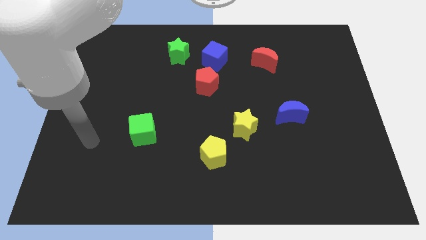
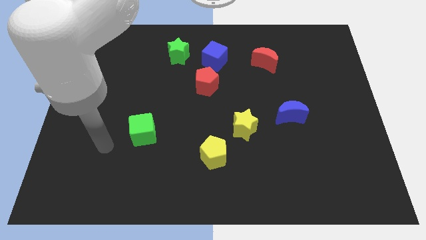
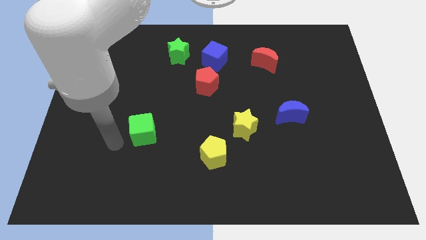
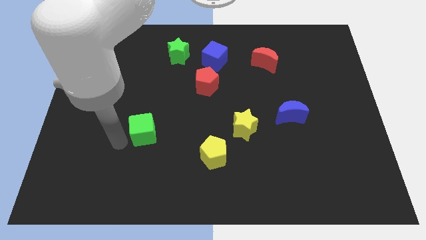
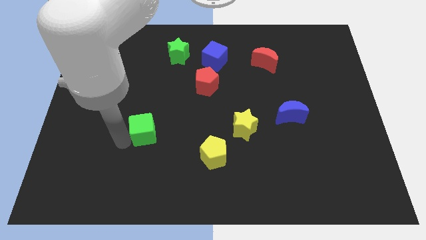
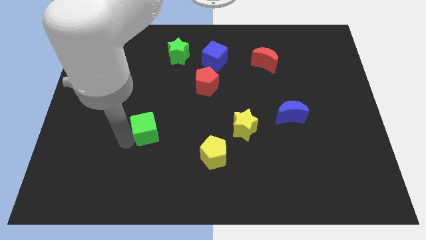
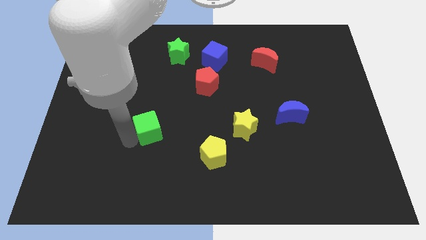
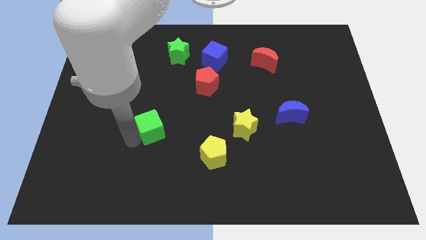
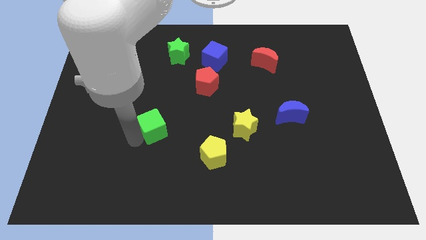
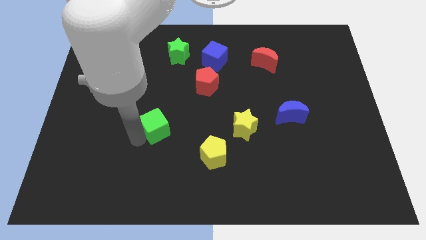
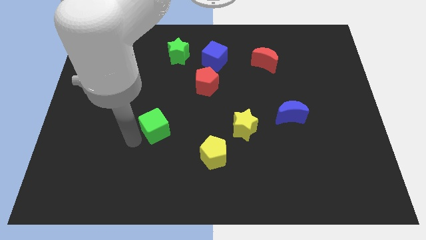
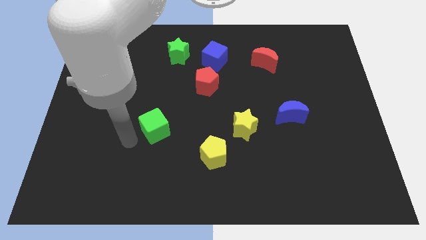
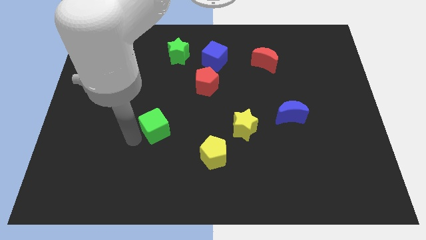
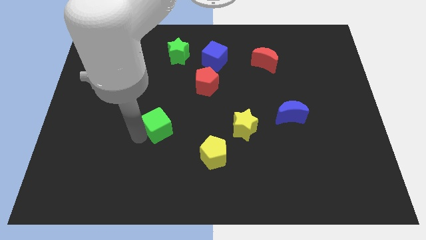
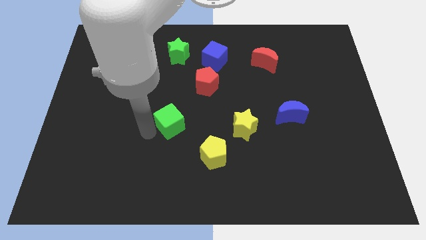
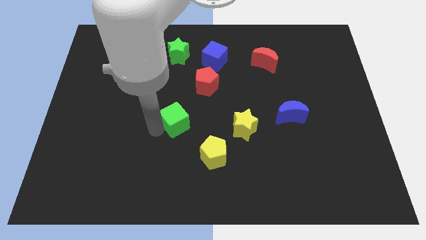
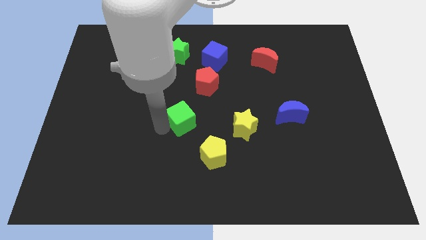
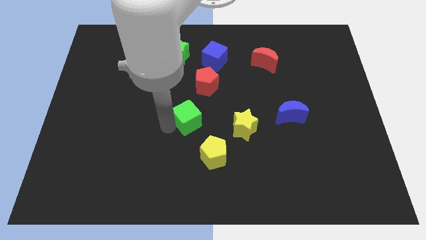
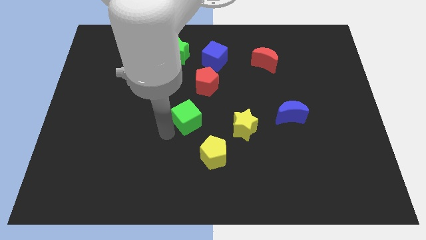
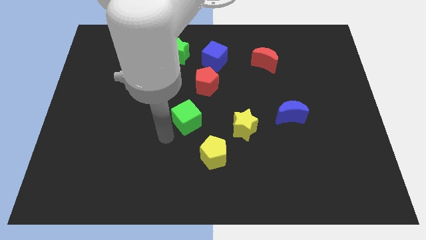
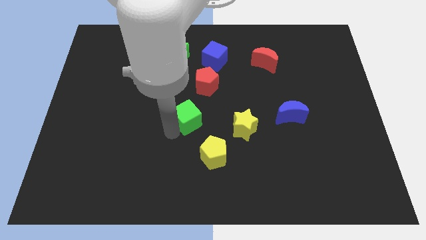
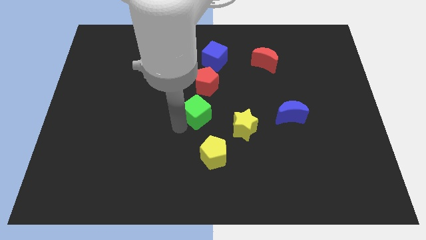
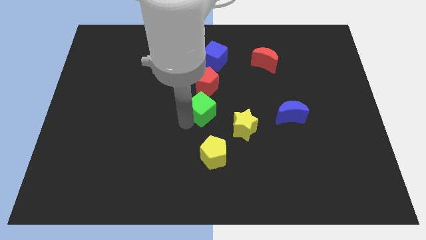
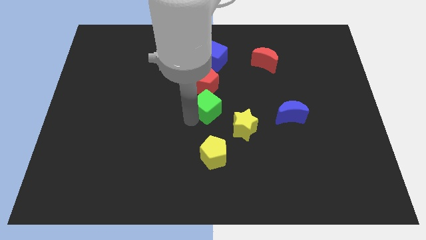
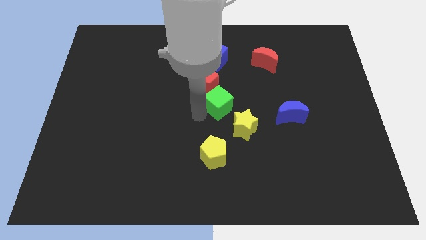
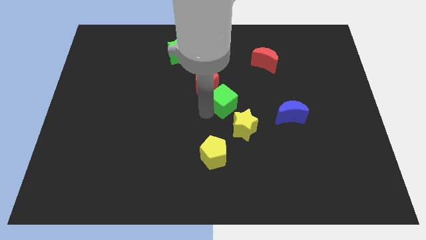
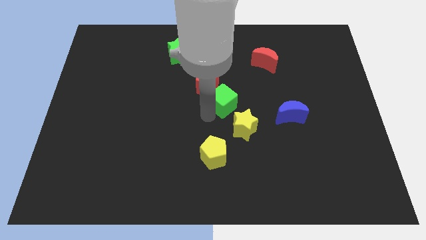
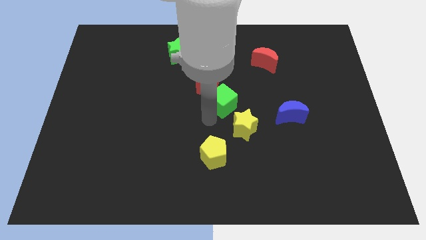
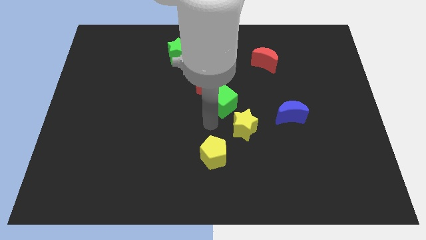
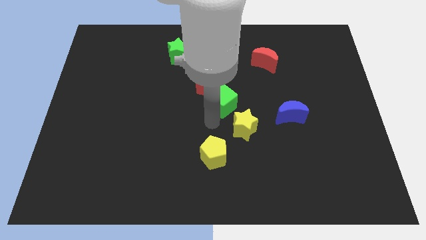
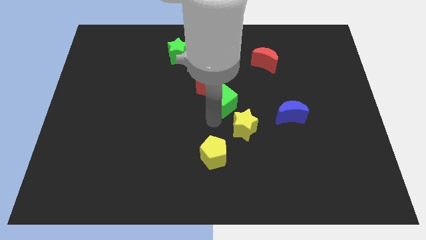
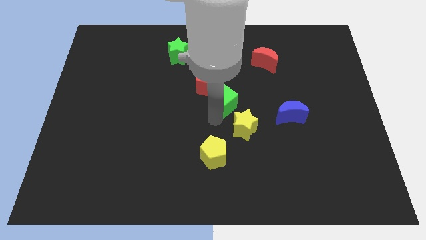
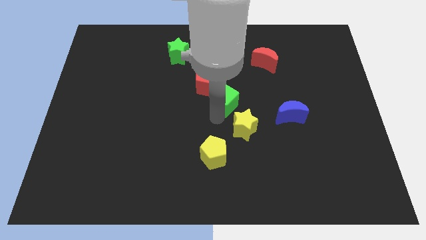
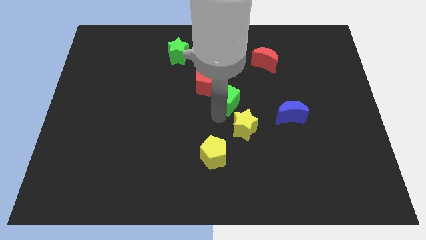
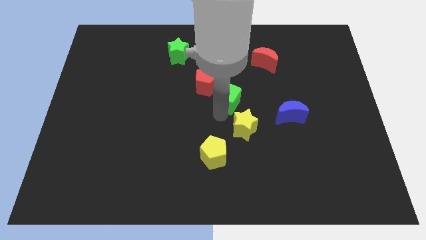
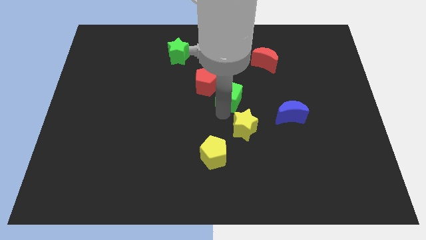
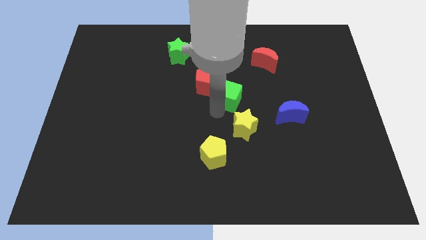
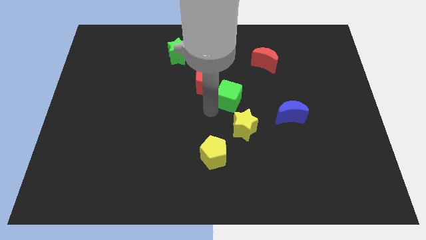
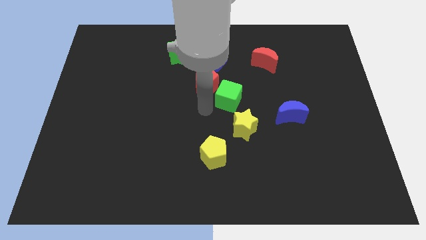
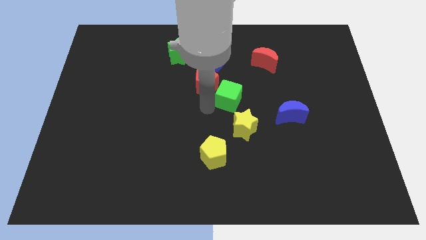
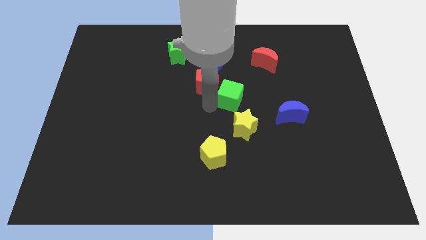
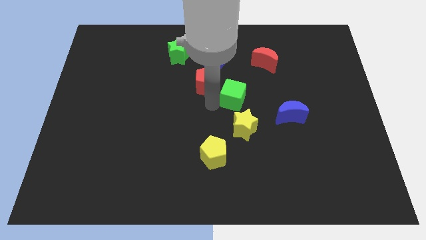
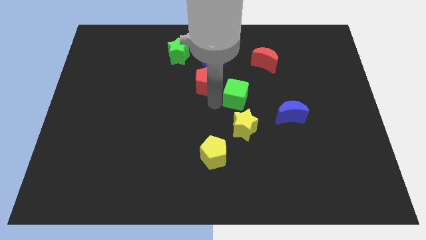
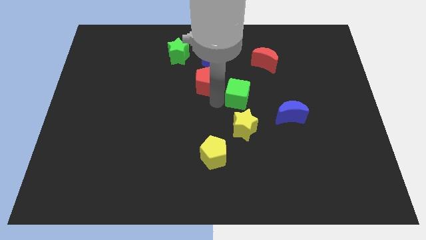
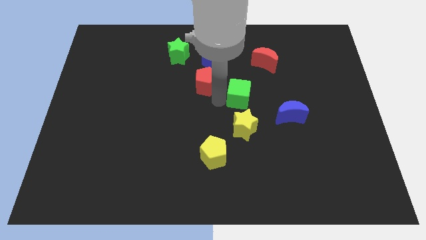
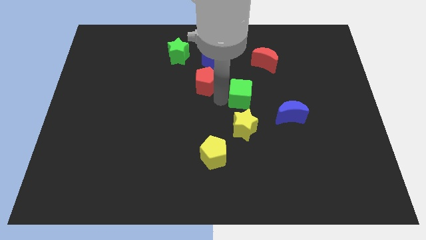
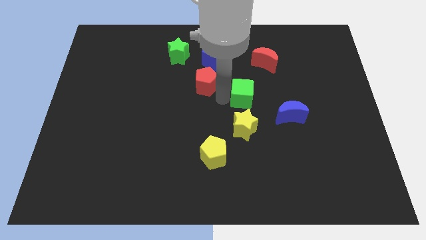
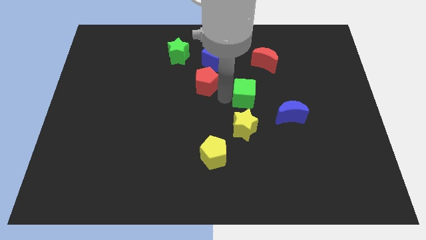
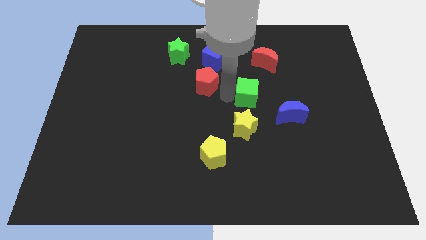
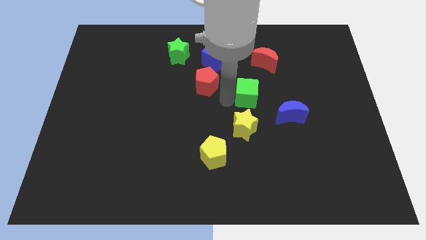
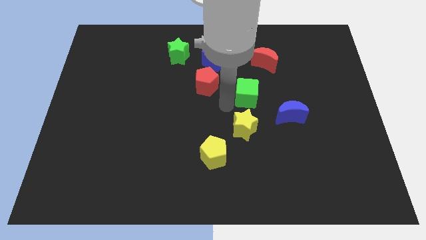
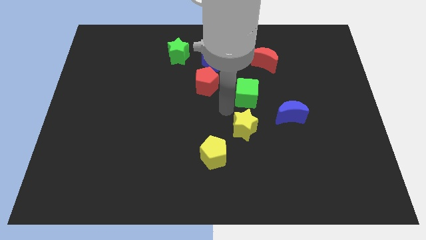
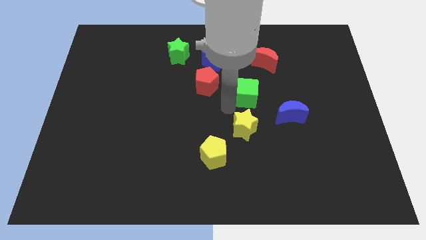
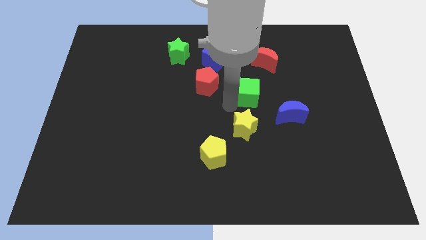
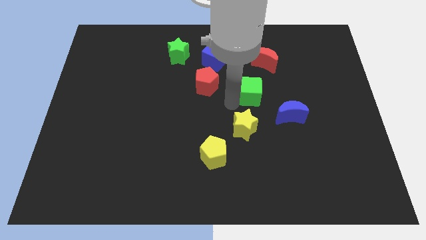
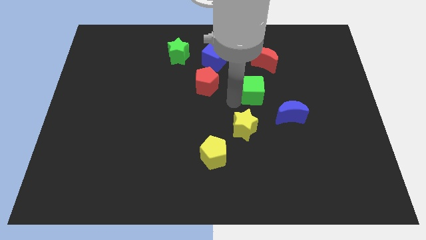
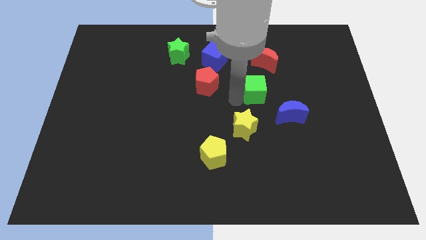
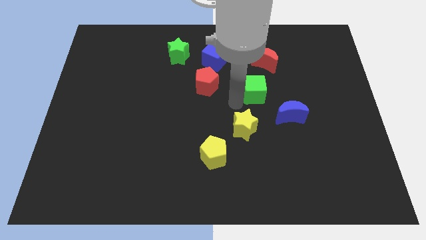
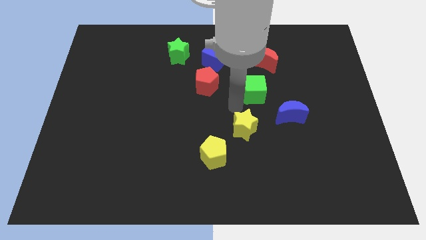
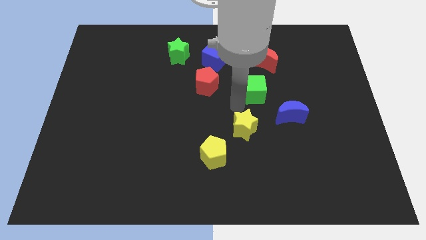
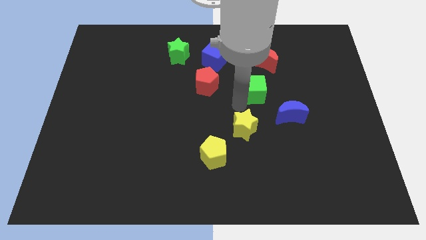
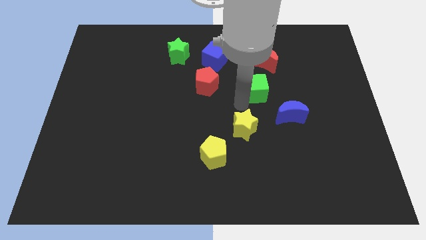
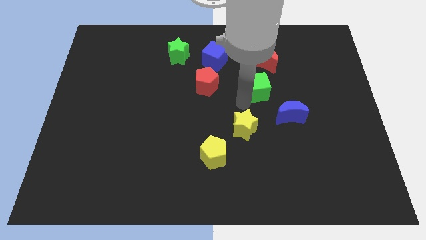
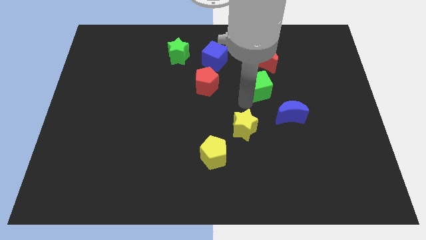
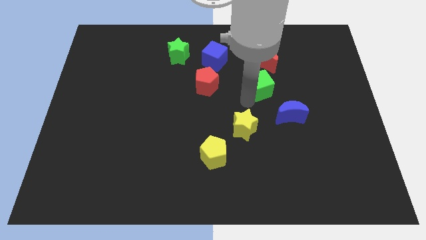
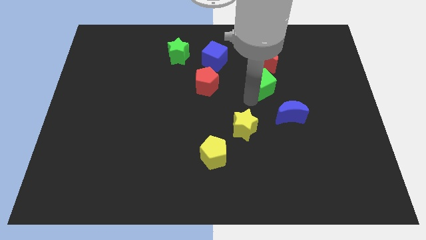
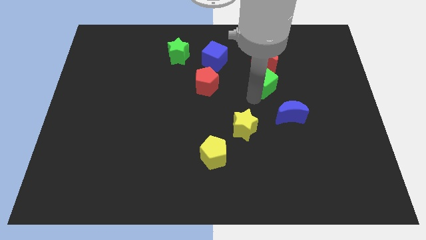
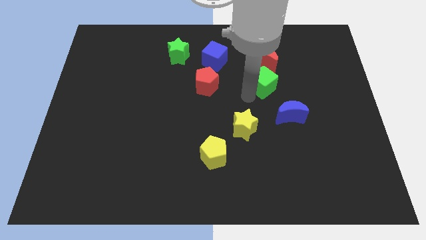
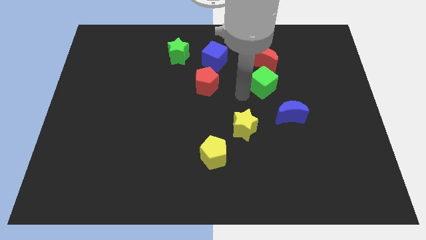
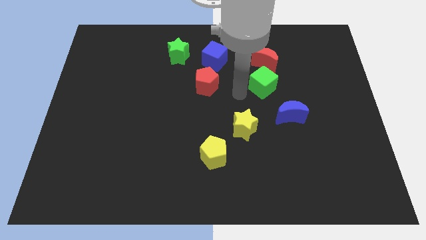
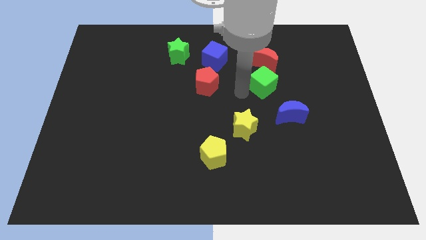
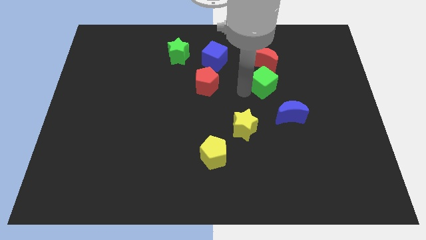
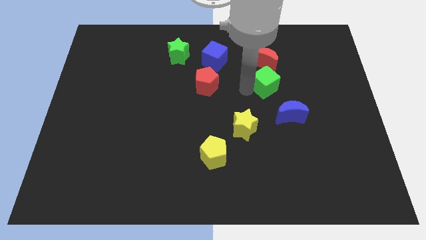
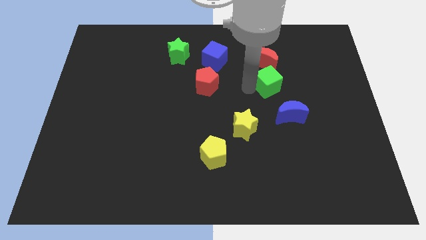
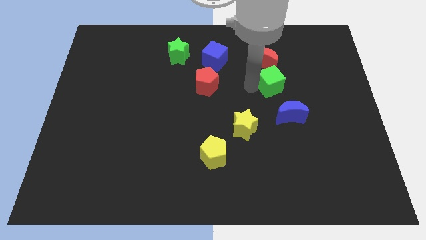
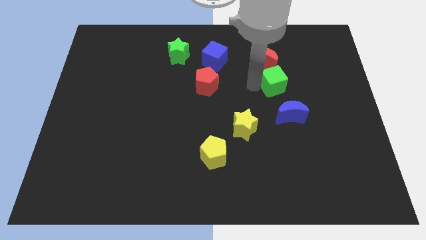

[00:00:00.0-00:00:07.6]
push the green cube to the bottom right side of the red moon
